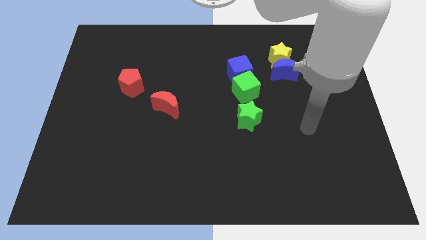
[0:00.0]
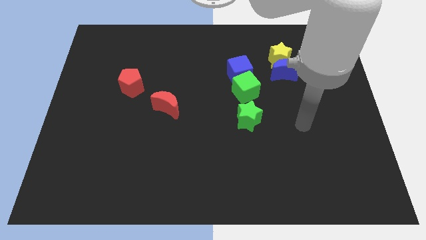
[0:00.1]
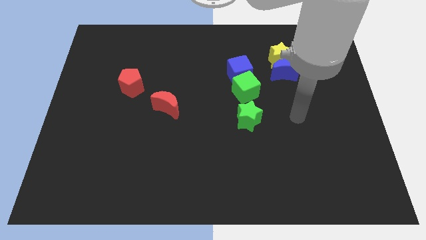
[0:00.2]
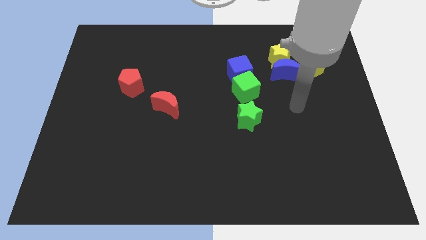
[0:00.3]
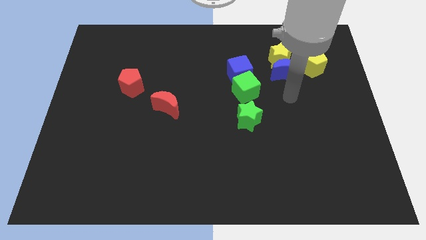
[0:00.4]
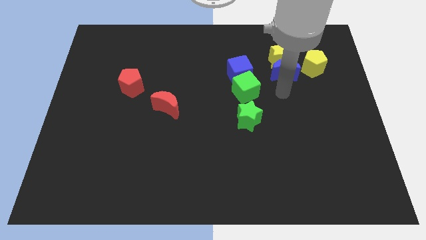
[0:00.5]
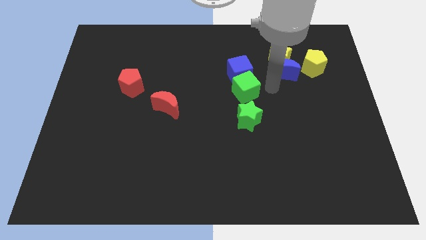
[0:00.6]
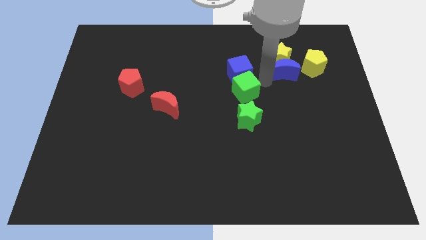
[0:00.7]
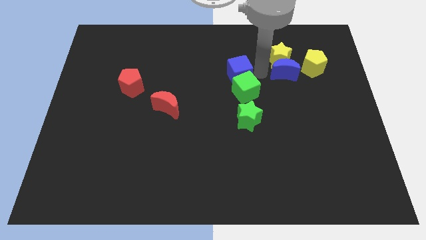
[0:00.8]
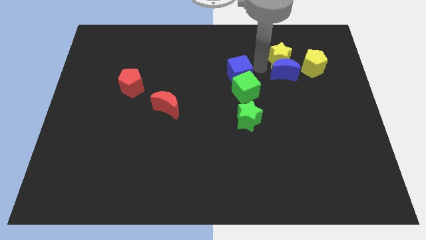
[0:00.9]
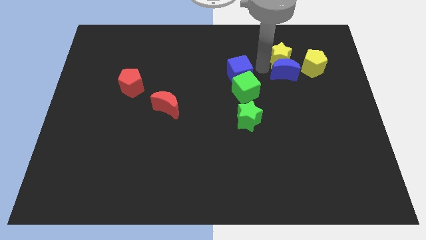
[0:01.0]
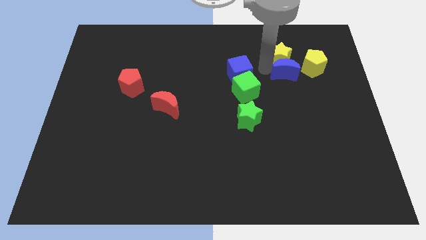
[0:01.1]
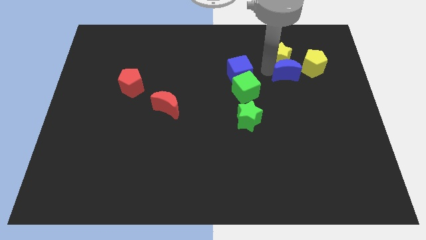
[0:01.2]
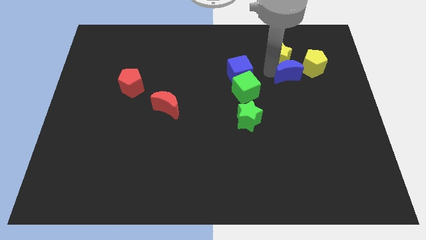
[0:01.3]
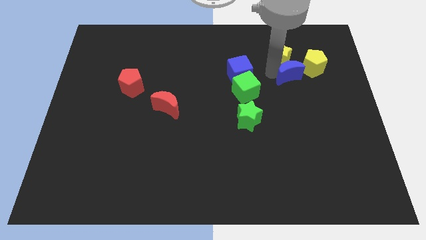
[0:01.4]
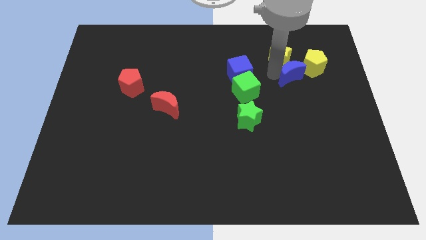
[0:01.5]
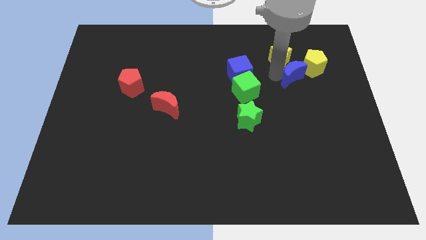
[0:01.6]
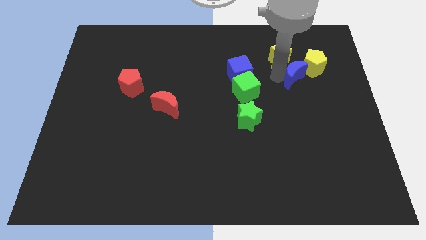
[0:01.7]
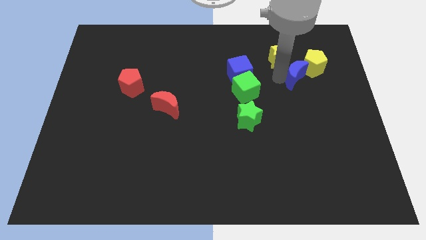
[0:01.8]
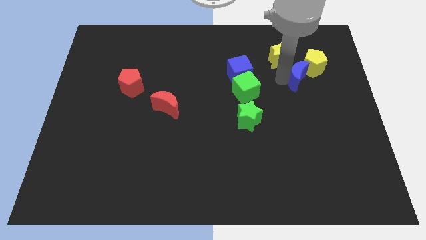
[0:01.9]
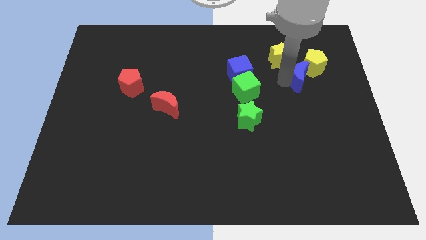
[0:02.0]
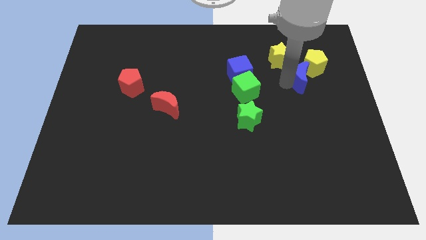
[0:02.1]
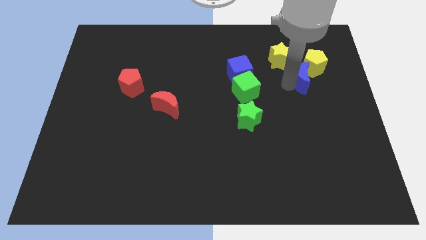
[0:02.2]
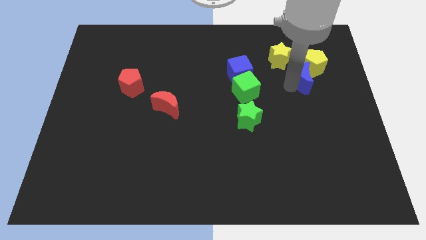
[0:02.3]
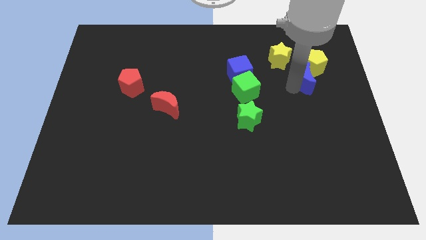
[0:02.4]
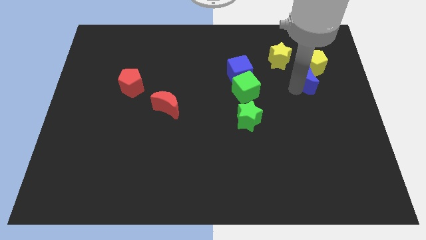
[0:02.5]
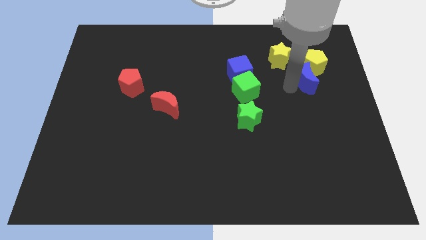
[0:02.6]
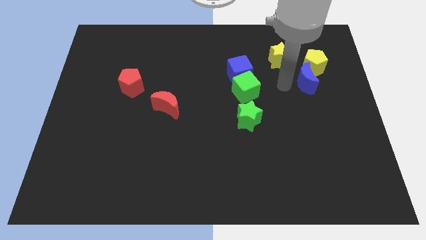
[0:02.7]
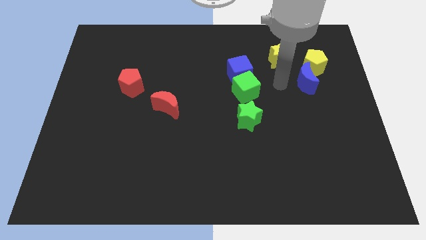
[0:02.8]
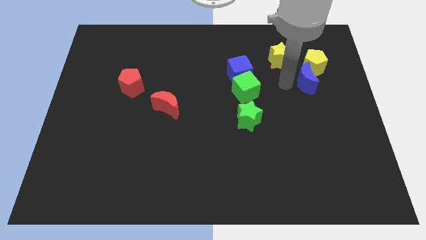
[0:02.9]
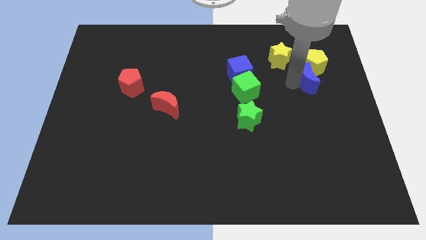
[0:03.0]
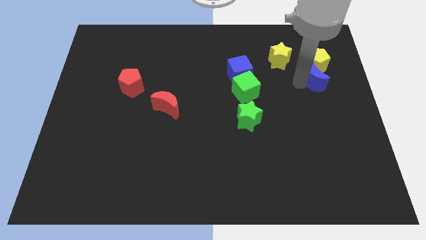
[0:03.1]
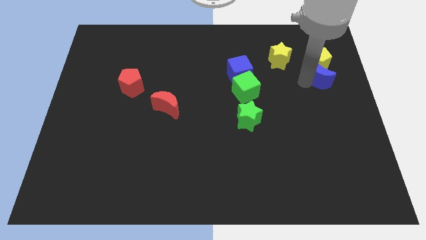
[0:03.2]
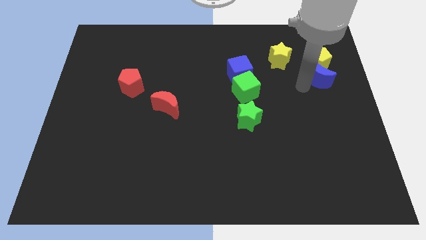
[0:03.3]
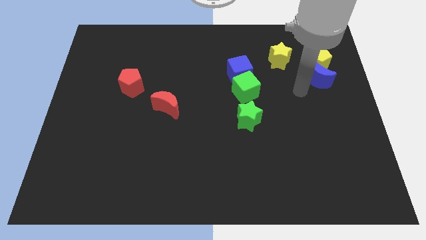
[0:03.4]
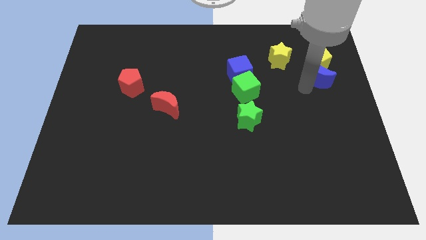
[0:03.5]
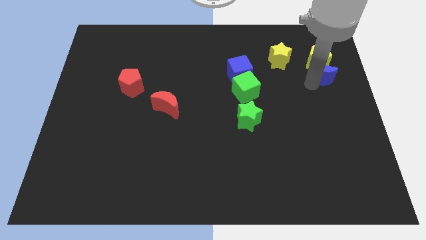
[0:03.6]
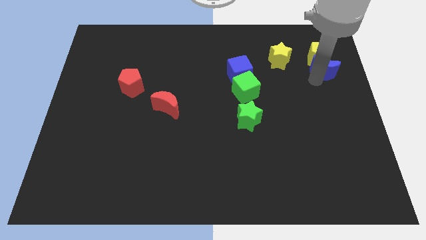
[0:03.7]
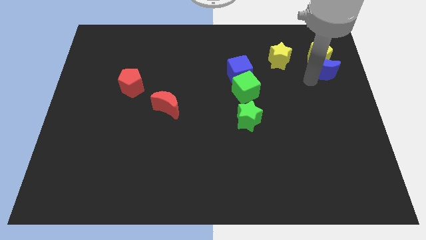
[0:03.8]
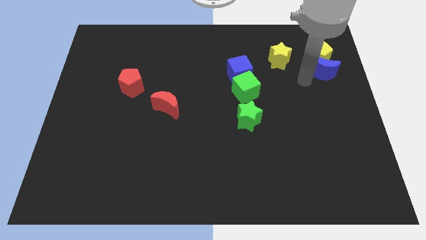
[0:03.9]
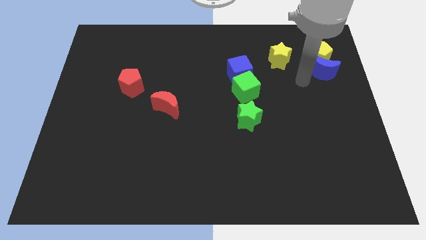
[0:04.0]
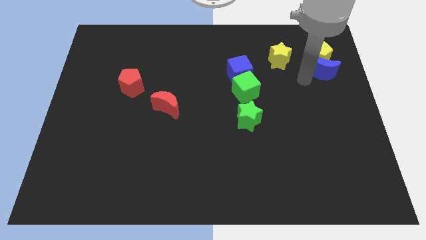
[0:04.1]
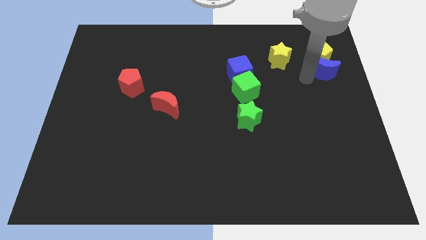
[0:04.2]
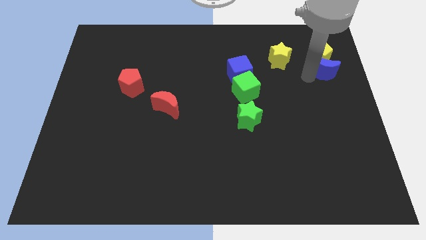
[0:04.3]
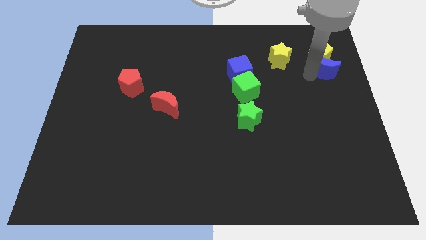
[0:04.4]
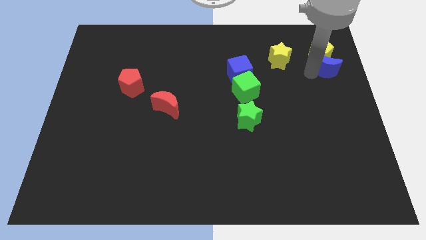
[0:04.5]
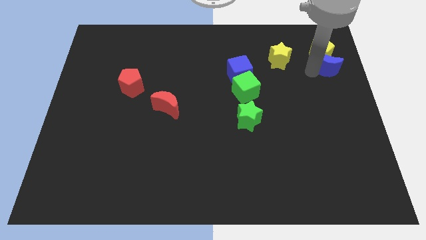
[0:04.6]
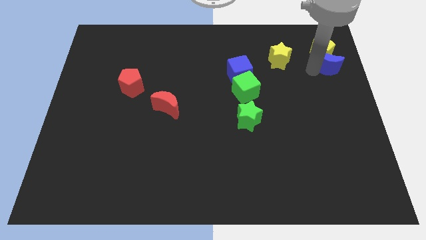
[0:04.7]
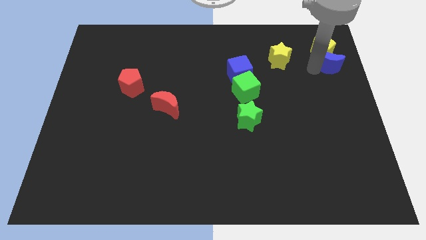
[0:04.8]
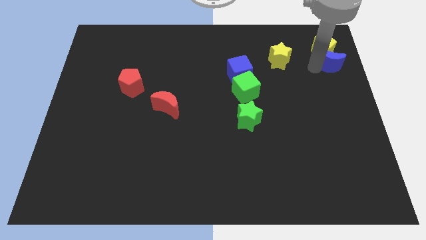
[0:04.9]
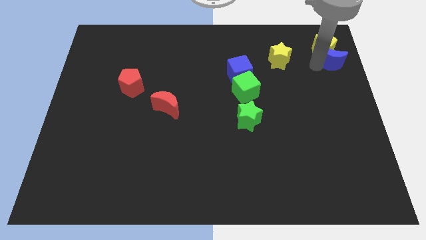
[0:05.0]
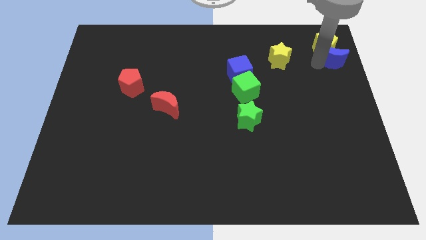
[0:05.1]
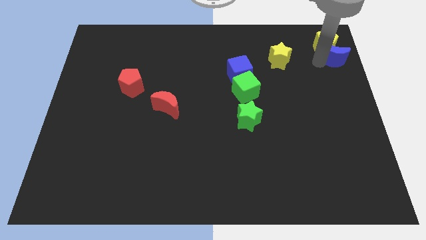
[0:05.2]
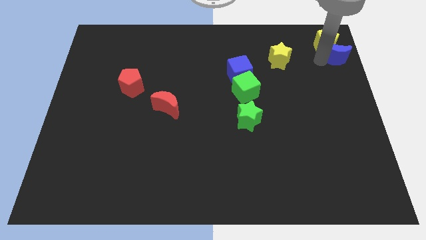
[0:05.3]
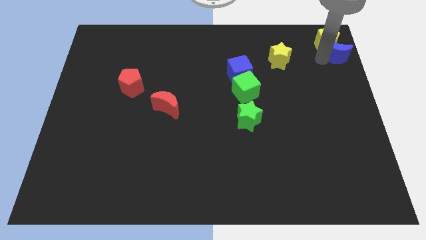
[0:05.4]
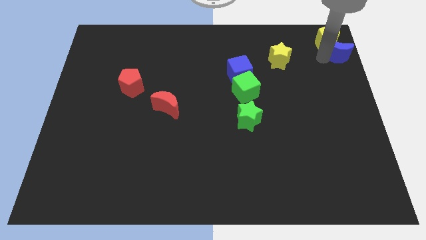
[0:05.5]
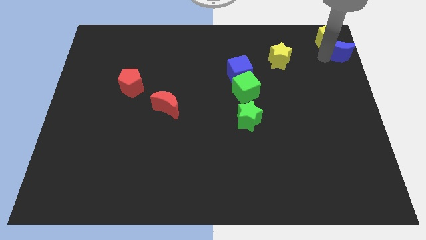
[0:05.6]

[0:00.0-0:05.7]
slide the blue moon to the upper right corner

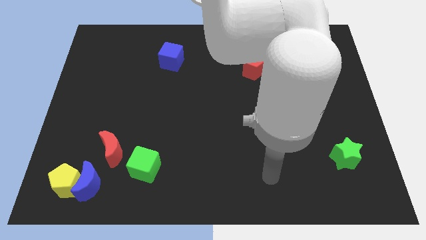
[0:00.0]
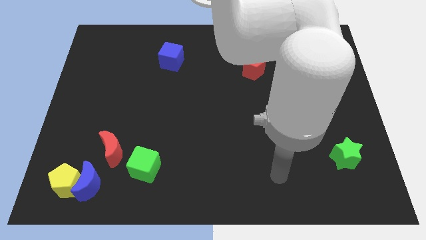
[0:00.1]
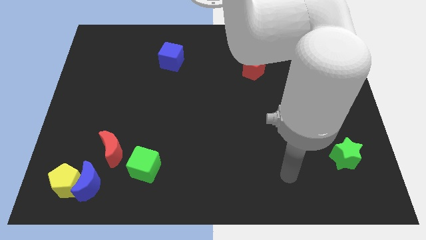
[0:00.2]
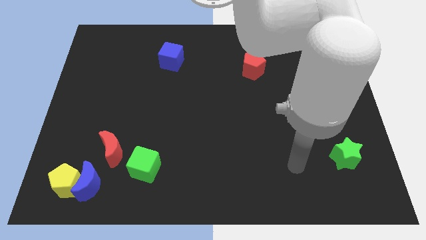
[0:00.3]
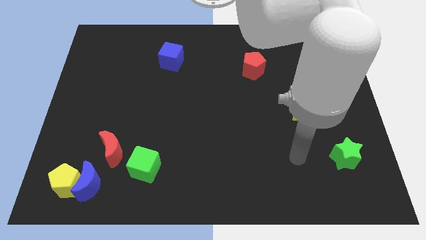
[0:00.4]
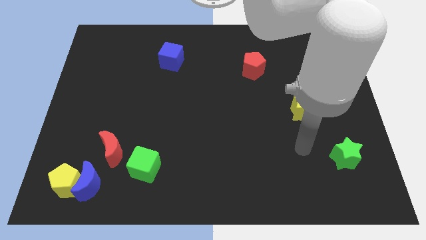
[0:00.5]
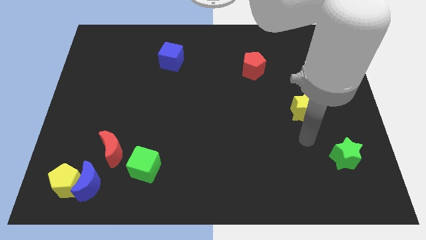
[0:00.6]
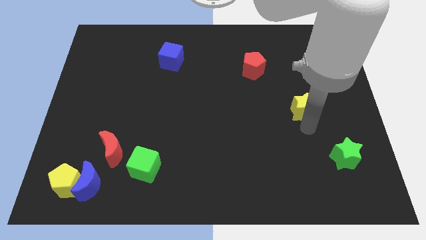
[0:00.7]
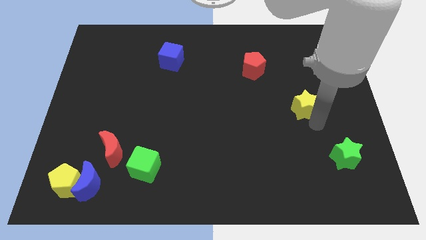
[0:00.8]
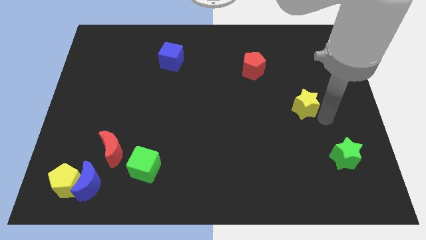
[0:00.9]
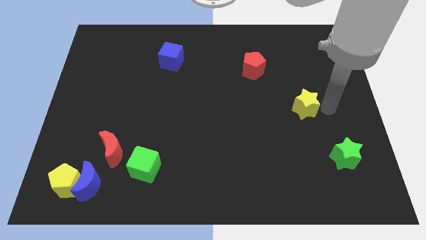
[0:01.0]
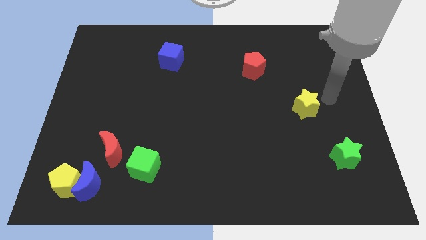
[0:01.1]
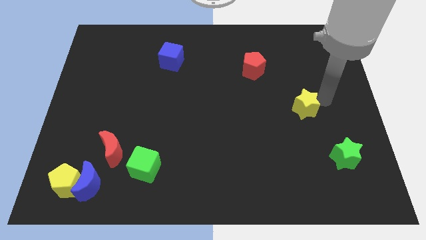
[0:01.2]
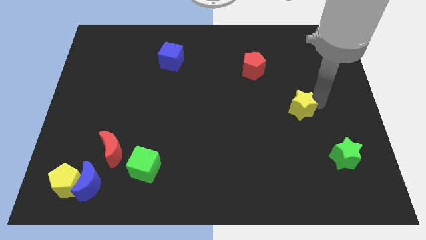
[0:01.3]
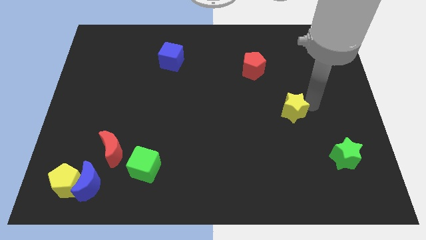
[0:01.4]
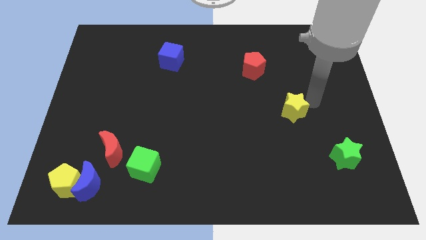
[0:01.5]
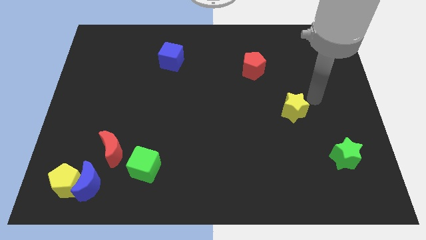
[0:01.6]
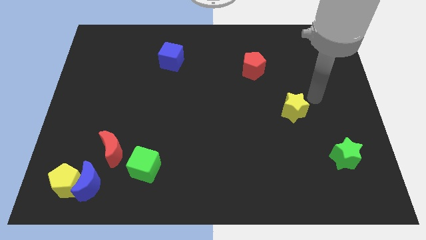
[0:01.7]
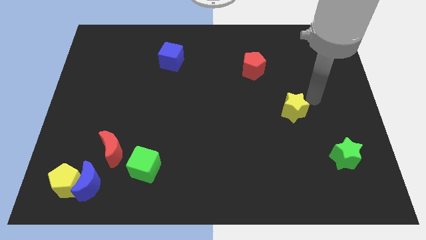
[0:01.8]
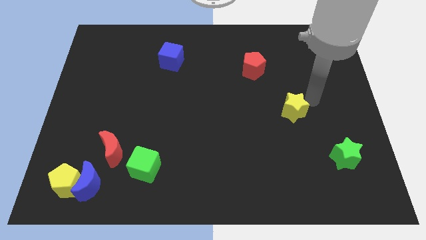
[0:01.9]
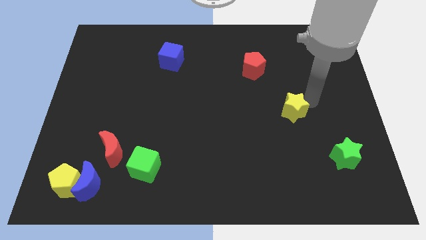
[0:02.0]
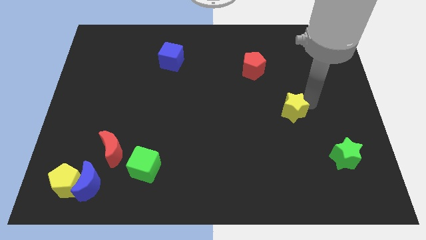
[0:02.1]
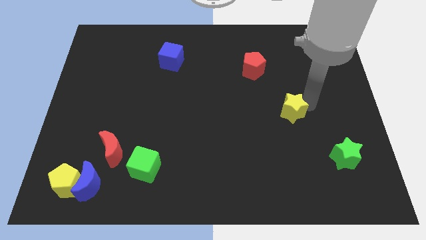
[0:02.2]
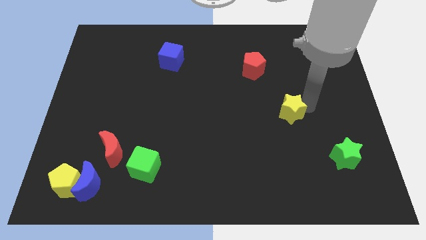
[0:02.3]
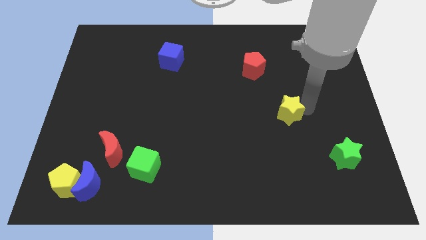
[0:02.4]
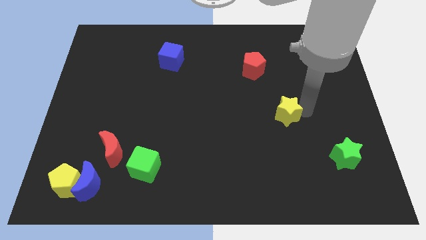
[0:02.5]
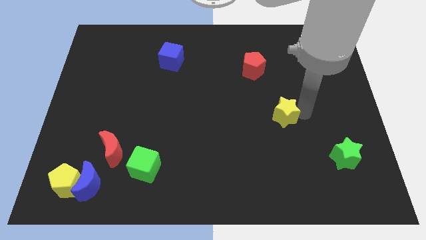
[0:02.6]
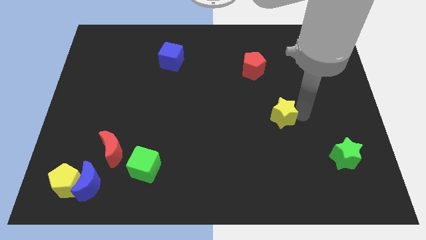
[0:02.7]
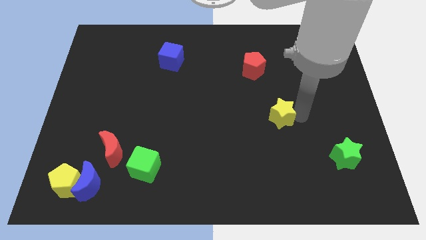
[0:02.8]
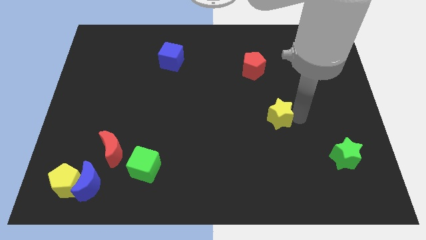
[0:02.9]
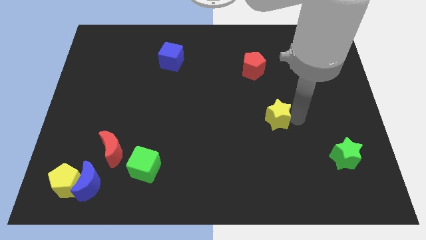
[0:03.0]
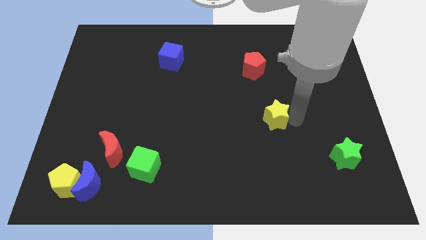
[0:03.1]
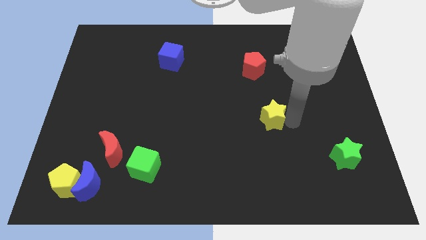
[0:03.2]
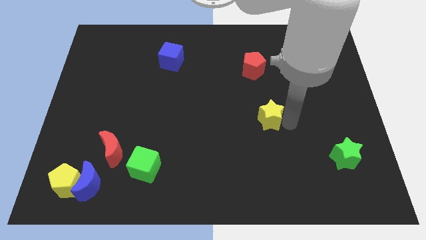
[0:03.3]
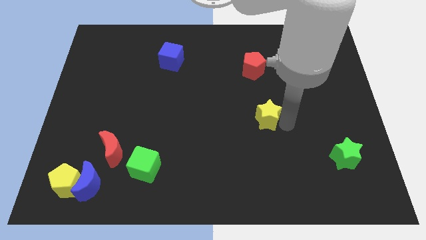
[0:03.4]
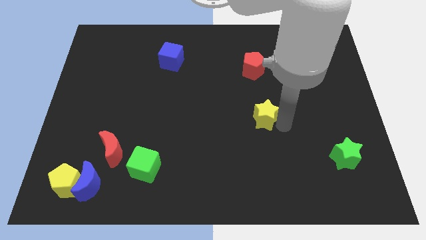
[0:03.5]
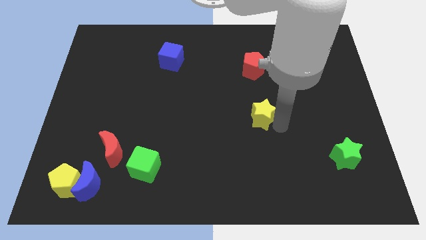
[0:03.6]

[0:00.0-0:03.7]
push the yellow star to the middle of the board
